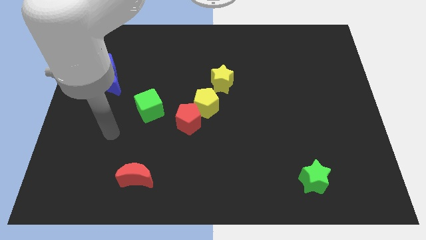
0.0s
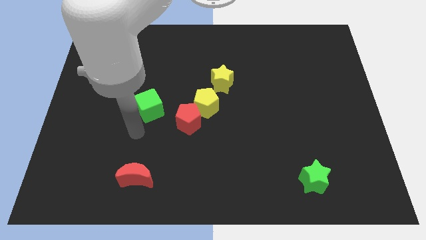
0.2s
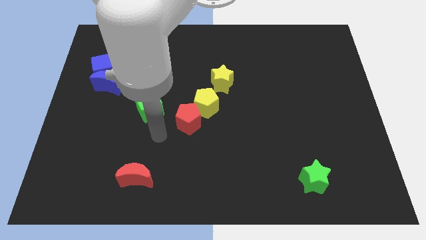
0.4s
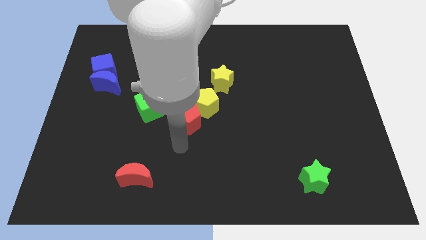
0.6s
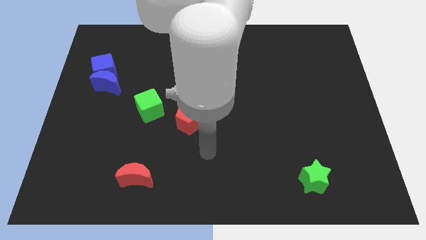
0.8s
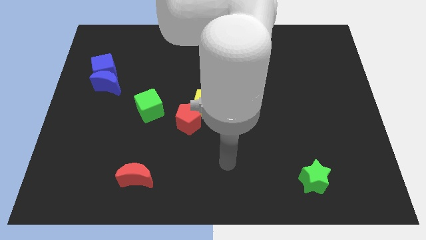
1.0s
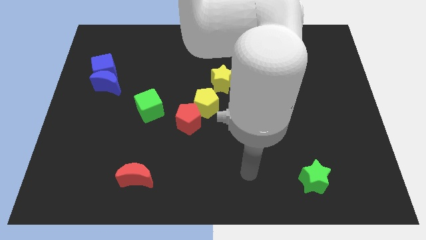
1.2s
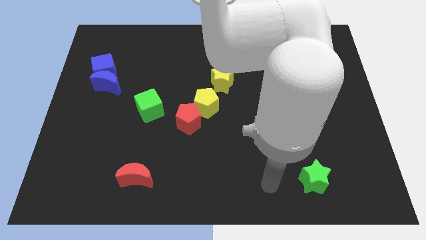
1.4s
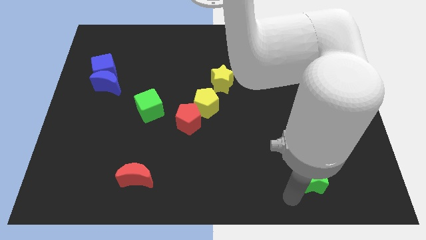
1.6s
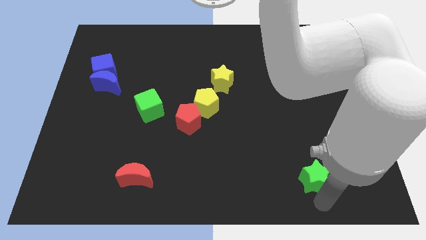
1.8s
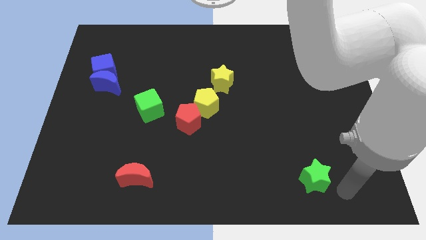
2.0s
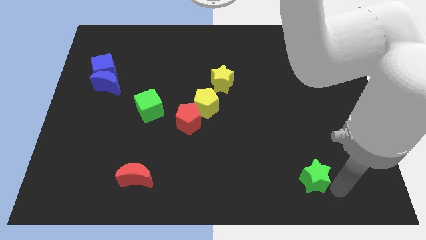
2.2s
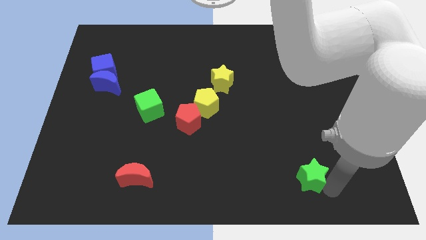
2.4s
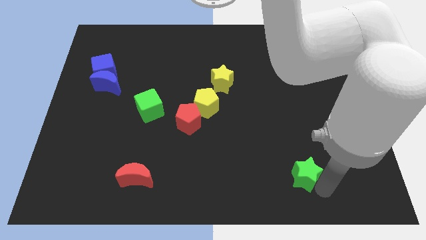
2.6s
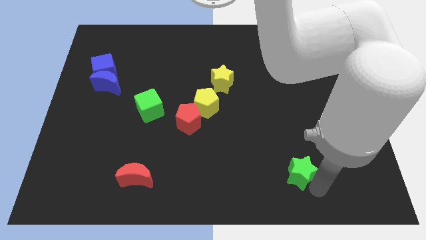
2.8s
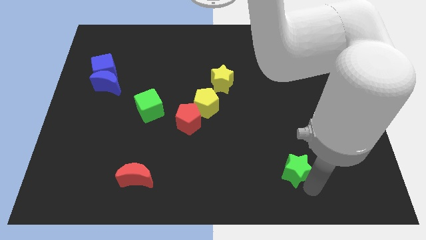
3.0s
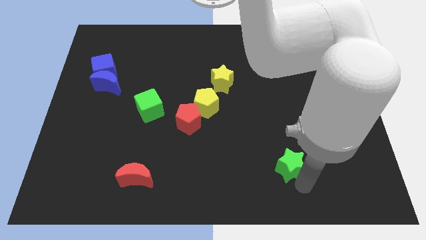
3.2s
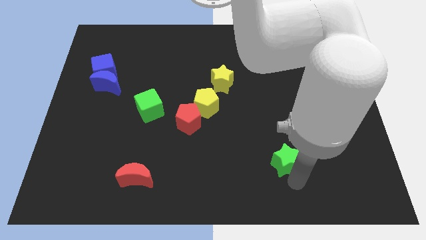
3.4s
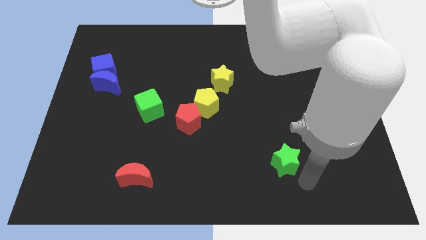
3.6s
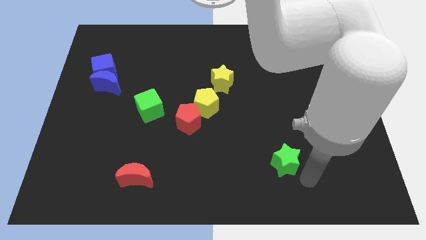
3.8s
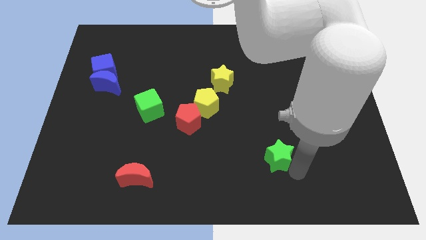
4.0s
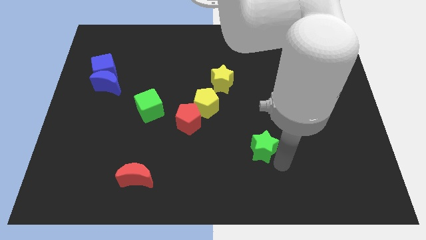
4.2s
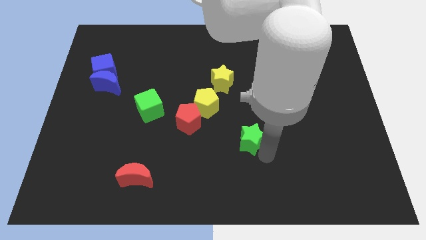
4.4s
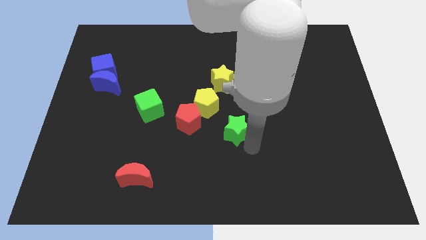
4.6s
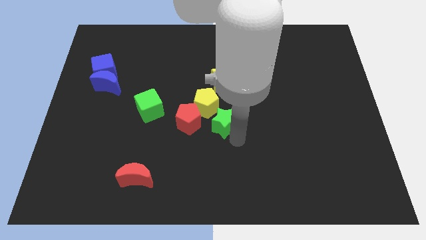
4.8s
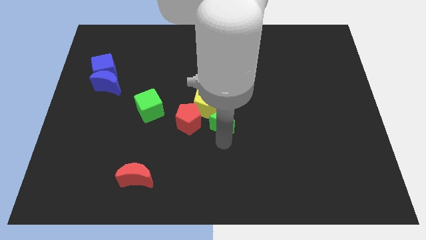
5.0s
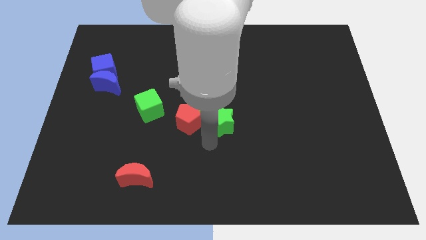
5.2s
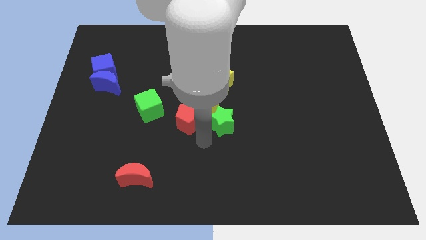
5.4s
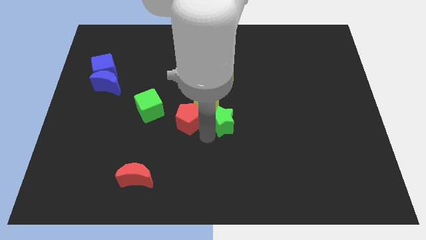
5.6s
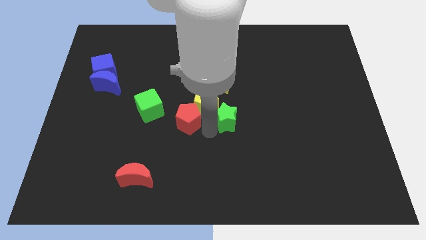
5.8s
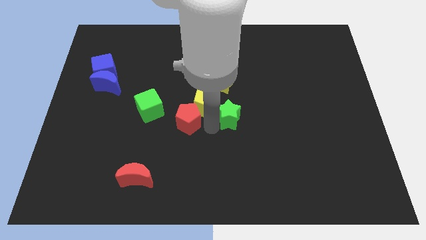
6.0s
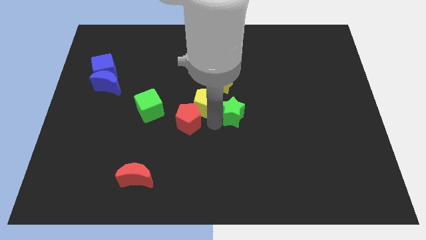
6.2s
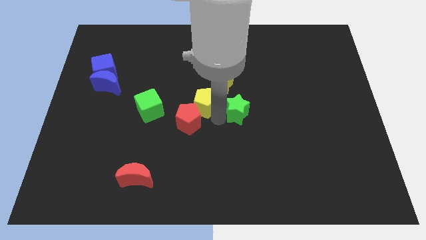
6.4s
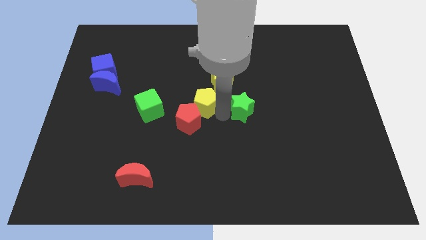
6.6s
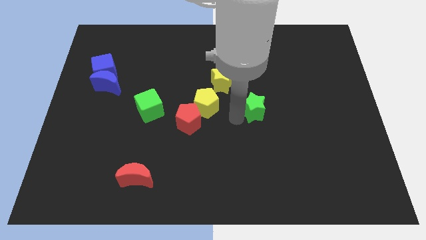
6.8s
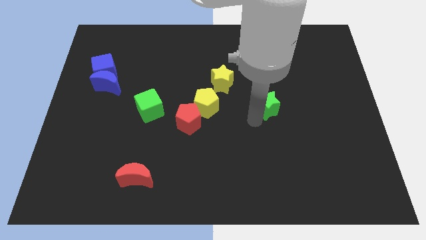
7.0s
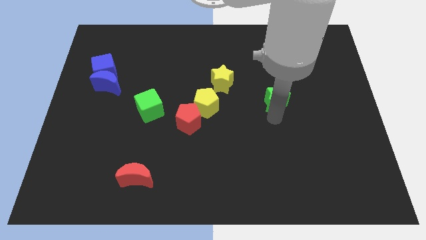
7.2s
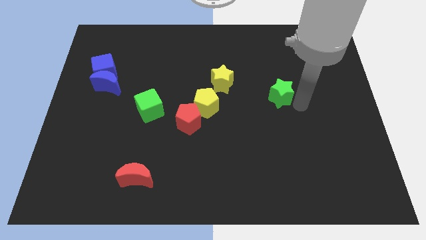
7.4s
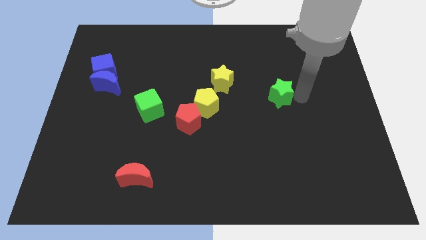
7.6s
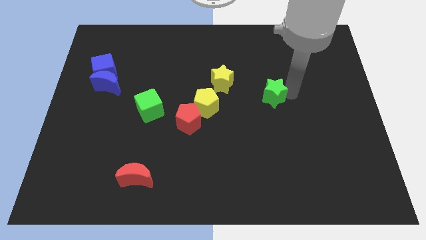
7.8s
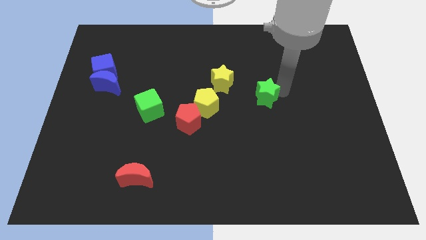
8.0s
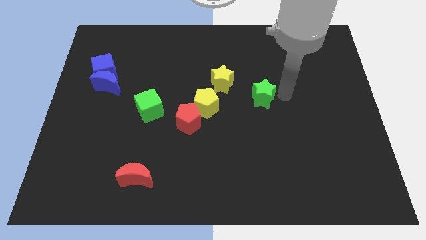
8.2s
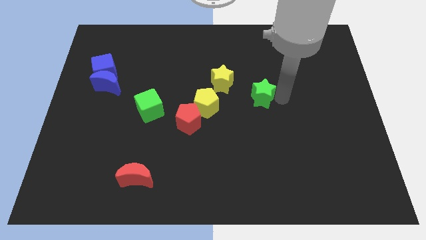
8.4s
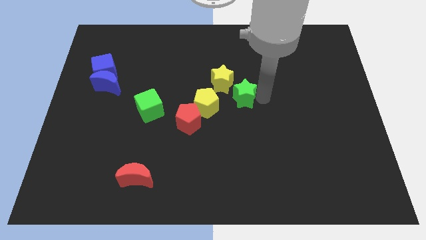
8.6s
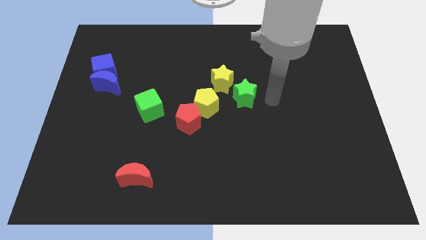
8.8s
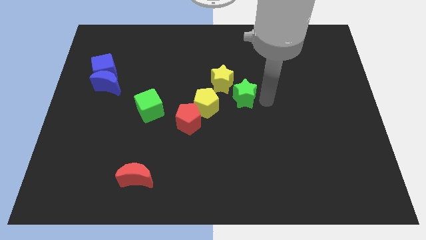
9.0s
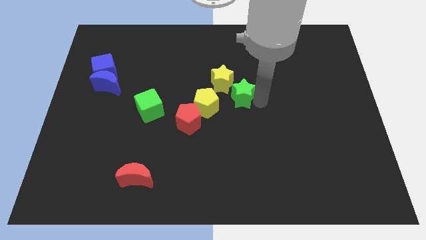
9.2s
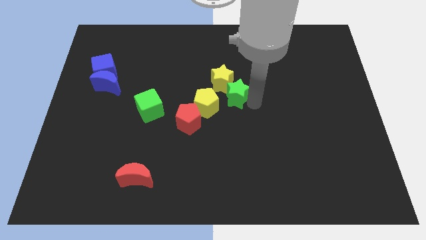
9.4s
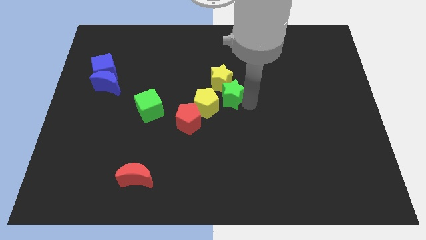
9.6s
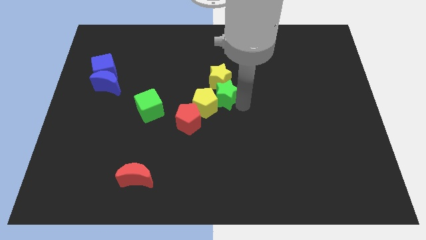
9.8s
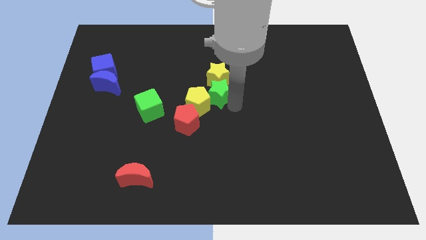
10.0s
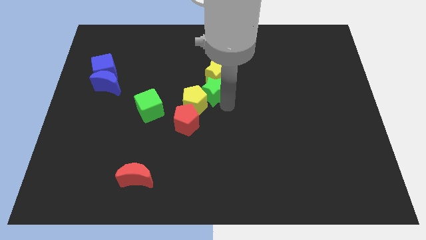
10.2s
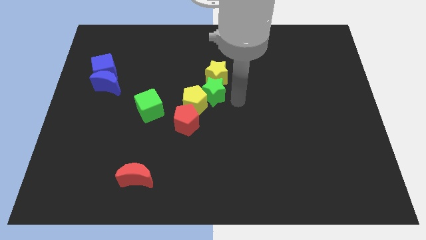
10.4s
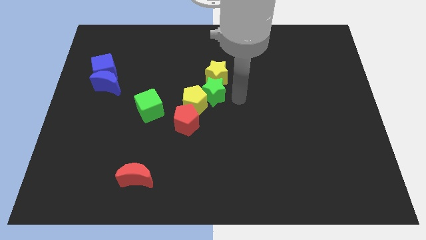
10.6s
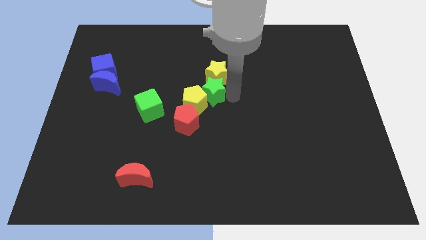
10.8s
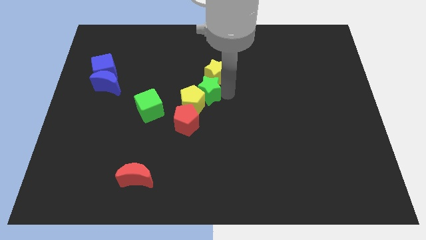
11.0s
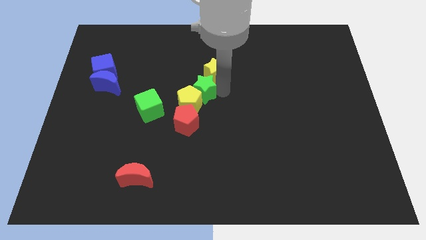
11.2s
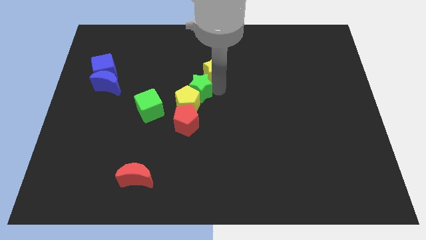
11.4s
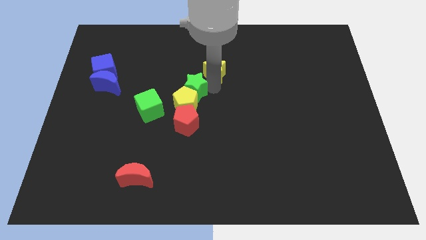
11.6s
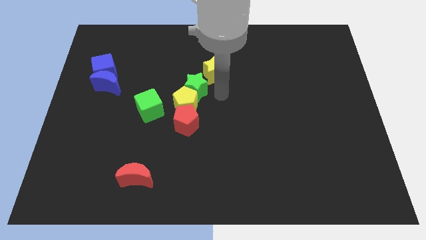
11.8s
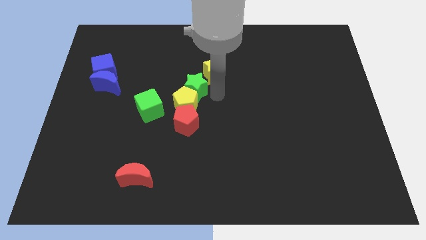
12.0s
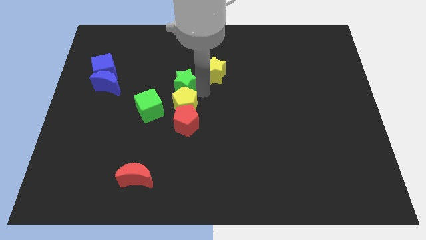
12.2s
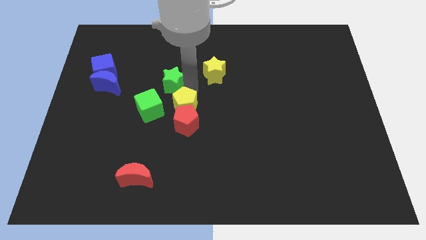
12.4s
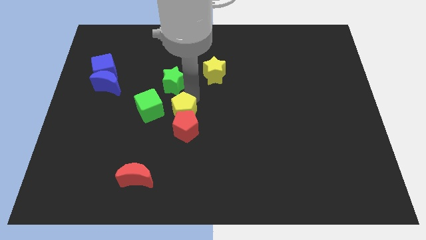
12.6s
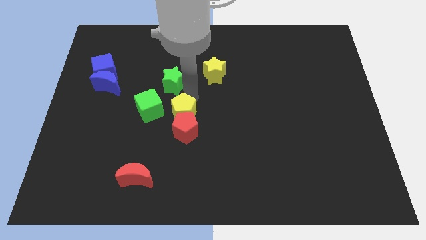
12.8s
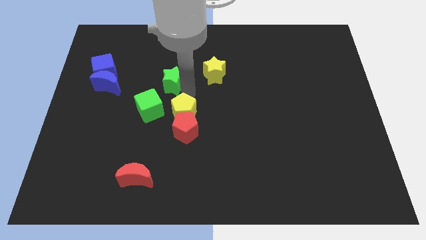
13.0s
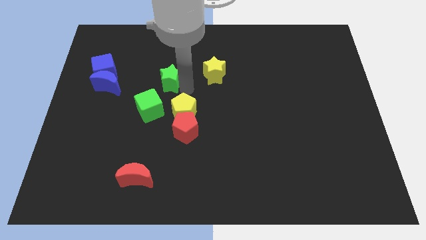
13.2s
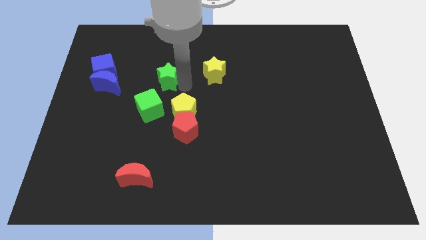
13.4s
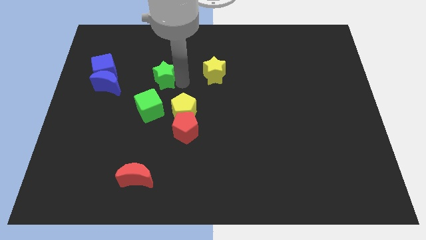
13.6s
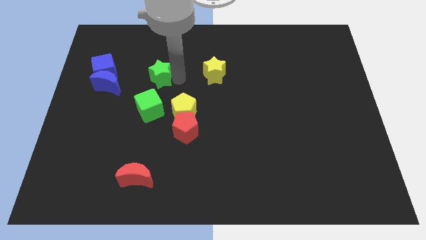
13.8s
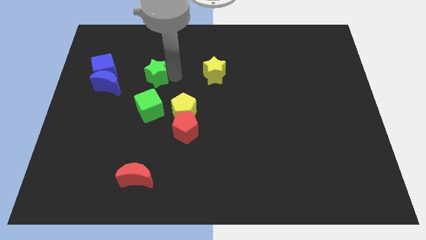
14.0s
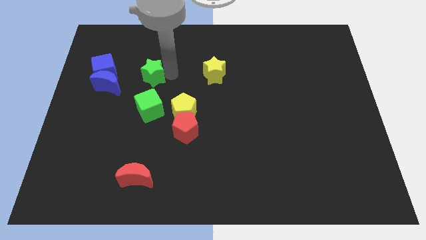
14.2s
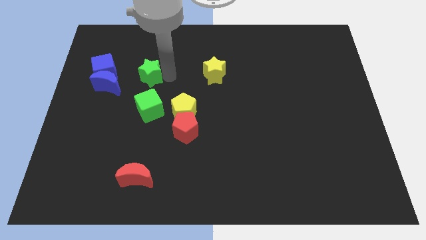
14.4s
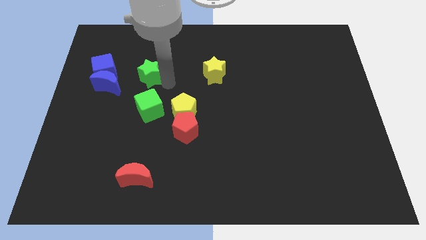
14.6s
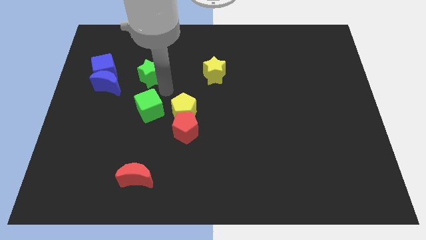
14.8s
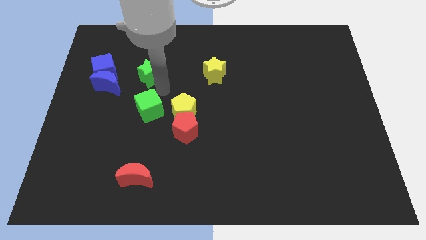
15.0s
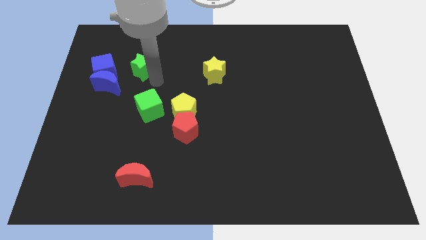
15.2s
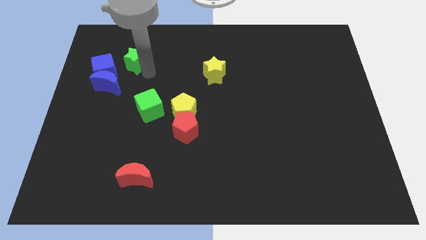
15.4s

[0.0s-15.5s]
move the green star to the top right side of the blue cube

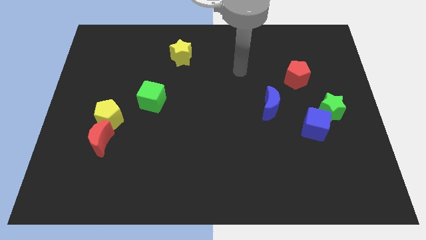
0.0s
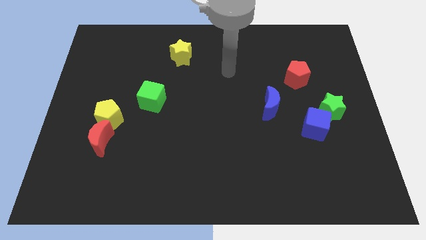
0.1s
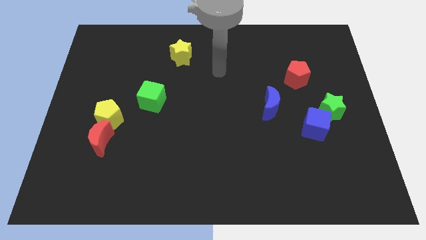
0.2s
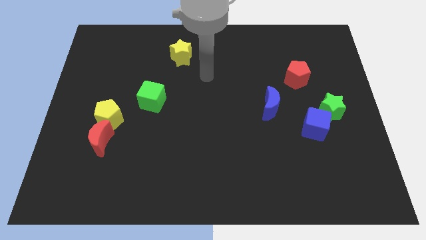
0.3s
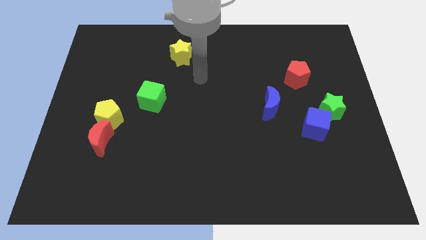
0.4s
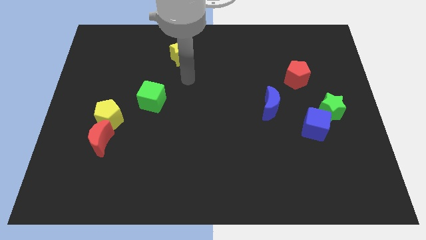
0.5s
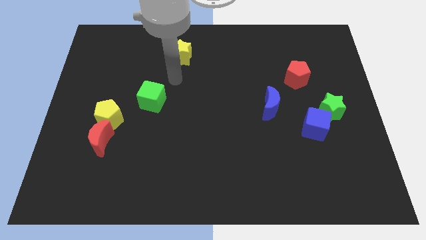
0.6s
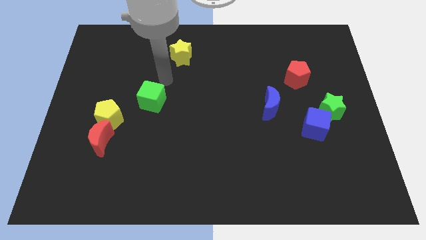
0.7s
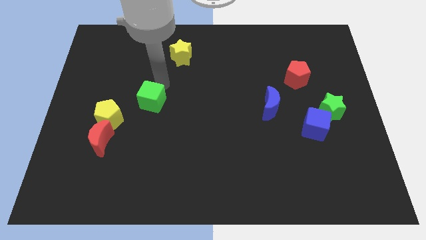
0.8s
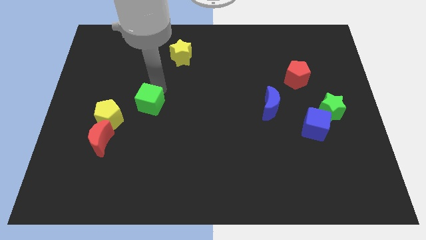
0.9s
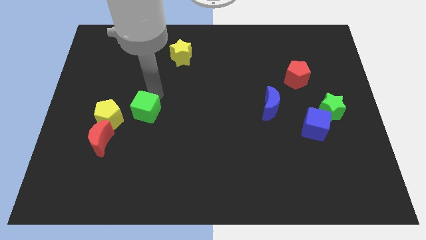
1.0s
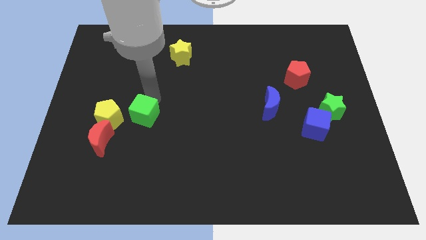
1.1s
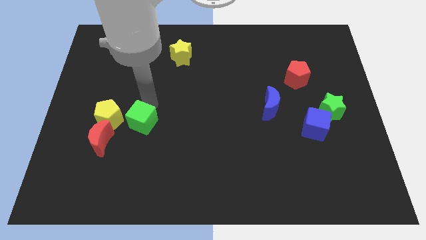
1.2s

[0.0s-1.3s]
put the green cube to the bottom right of the yellow pentagon
